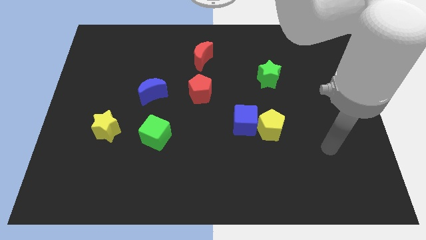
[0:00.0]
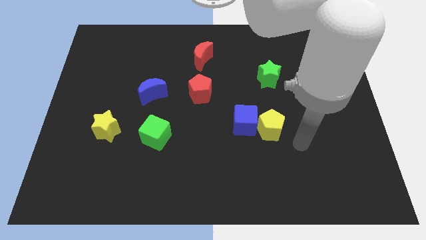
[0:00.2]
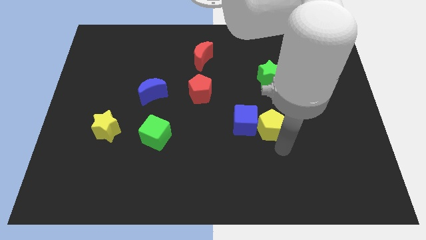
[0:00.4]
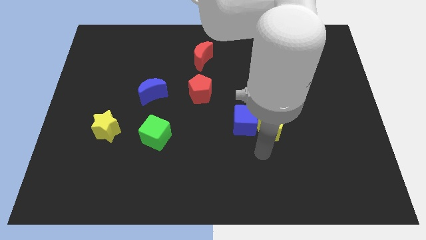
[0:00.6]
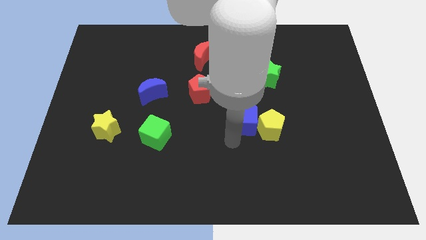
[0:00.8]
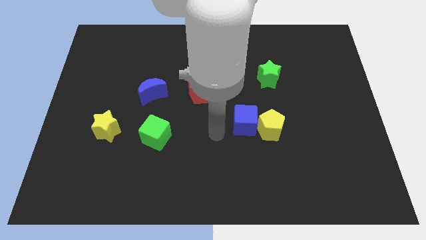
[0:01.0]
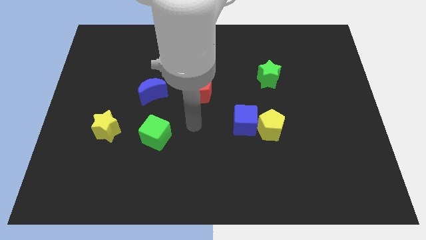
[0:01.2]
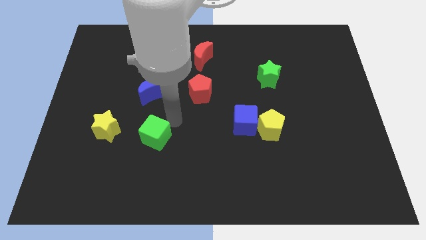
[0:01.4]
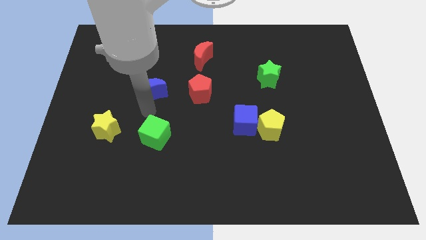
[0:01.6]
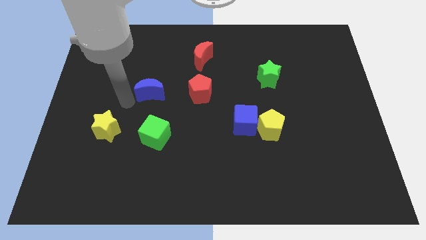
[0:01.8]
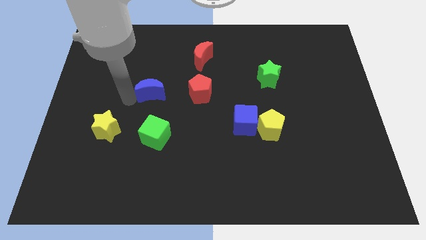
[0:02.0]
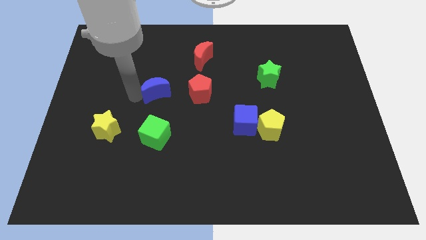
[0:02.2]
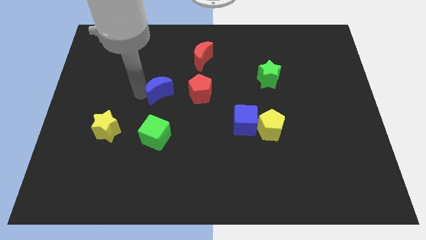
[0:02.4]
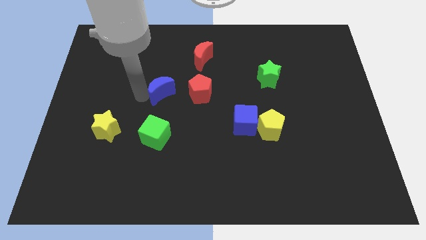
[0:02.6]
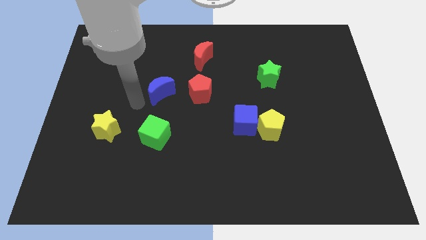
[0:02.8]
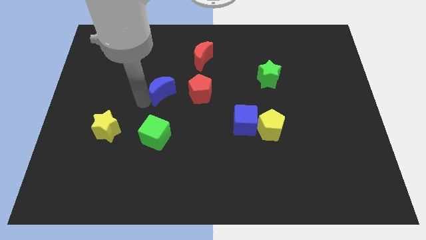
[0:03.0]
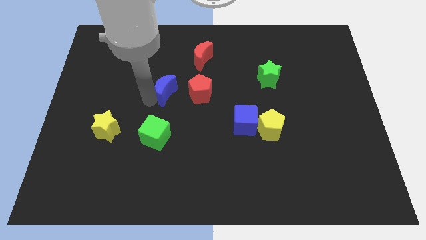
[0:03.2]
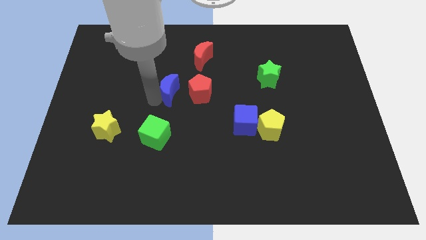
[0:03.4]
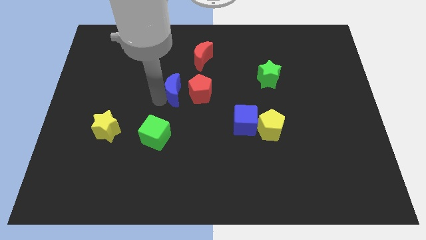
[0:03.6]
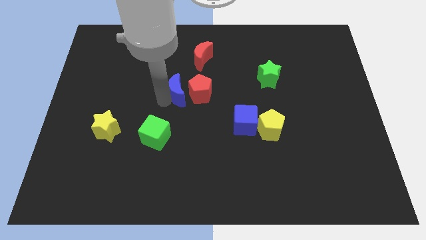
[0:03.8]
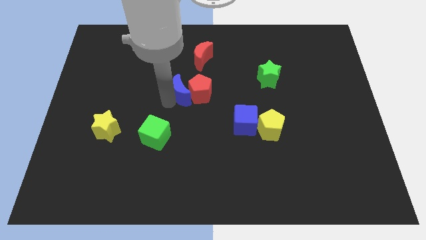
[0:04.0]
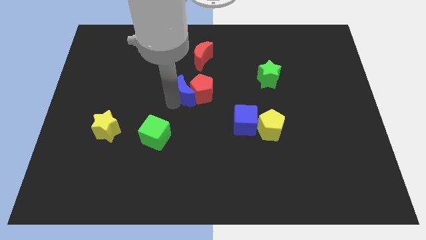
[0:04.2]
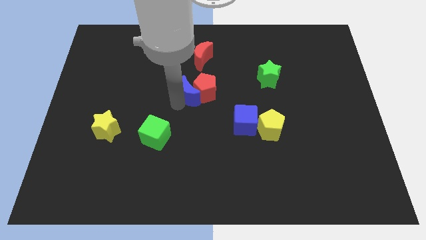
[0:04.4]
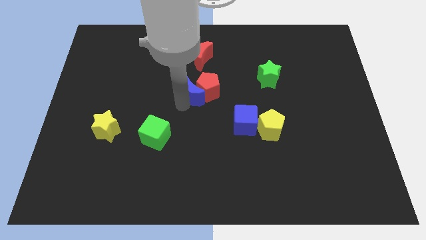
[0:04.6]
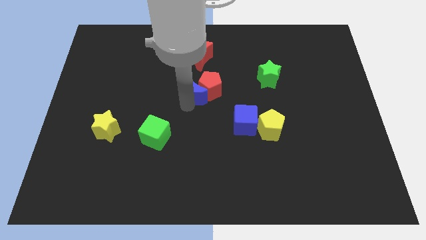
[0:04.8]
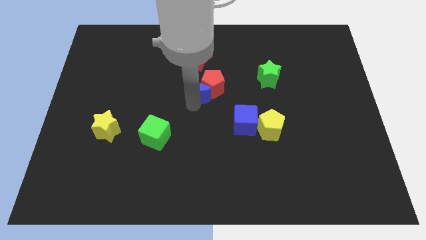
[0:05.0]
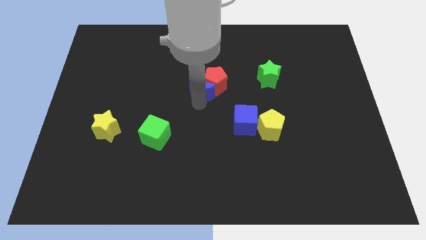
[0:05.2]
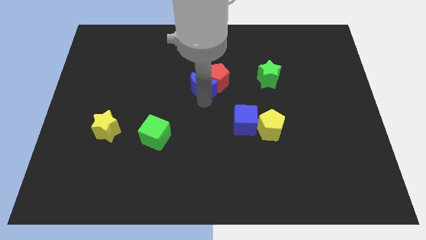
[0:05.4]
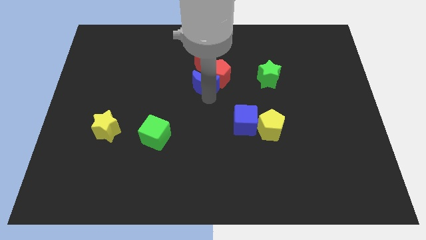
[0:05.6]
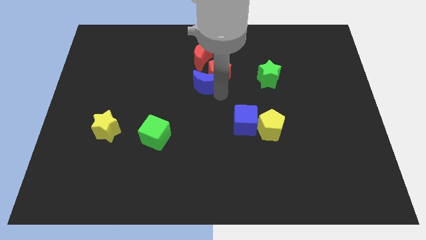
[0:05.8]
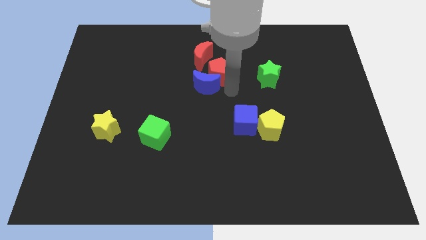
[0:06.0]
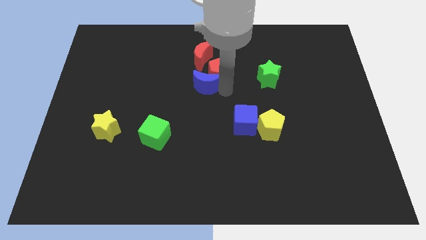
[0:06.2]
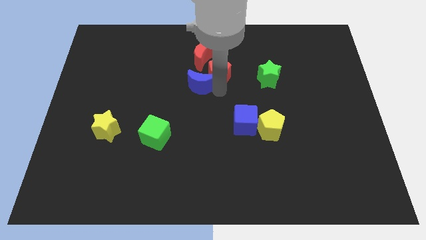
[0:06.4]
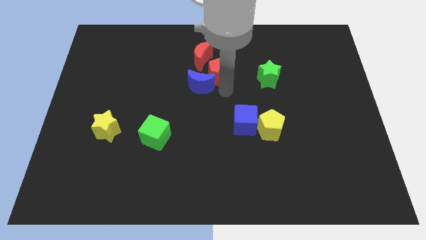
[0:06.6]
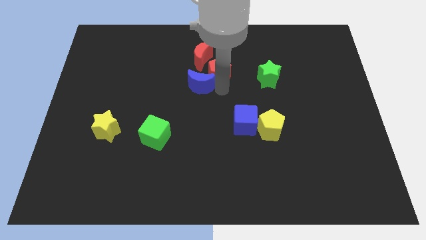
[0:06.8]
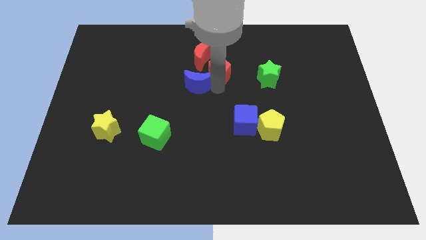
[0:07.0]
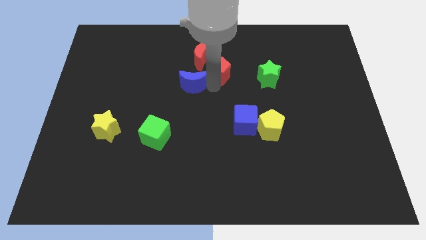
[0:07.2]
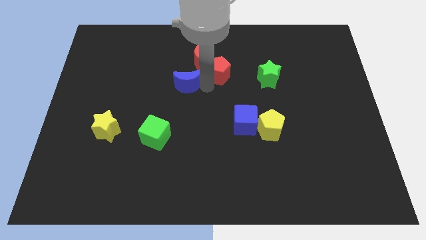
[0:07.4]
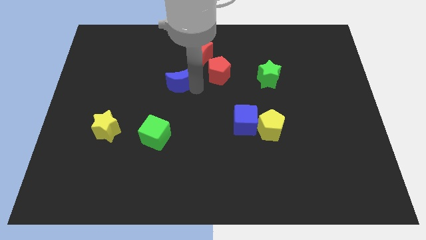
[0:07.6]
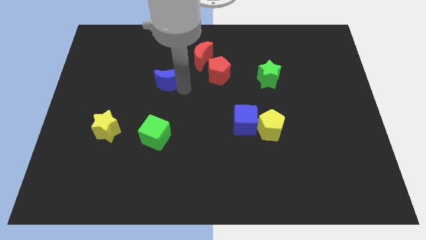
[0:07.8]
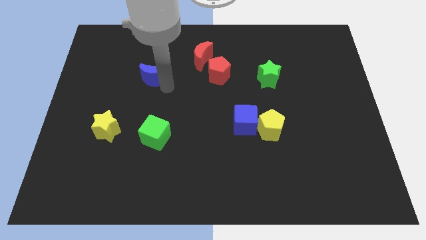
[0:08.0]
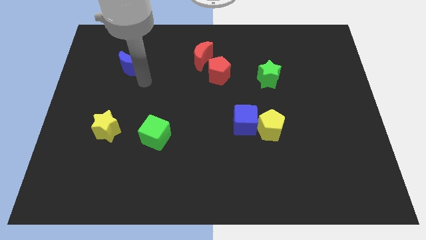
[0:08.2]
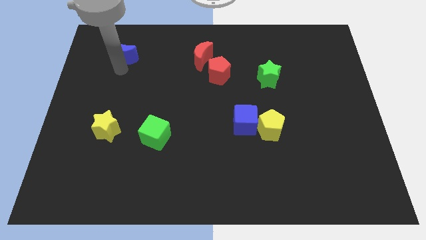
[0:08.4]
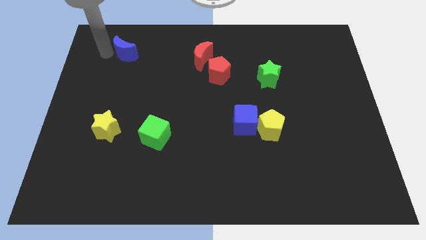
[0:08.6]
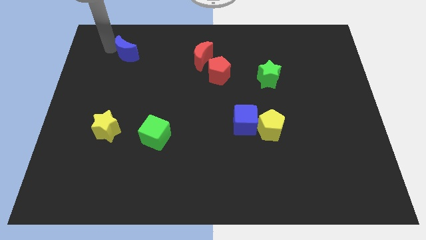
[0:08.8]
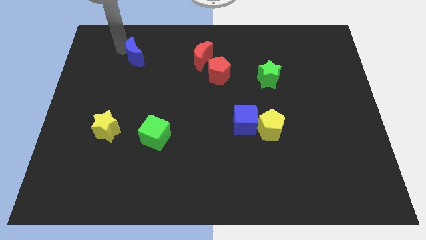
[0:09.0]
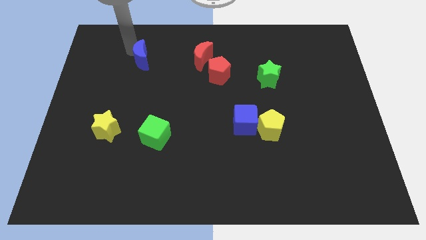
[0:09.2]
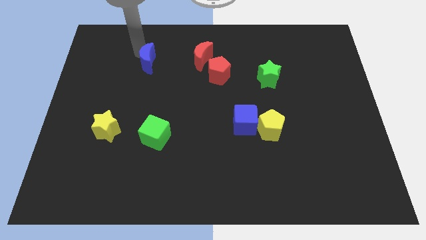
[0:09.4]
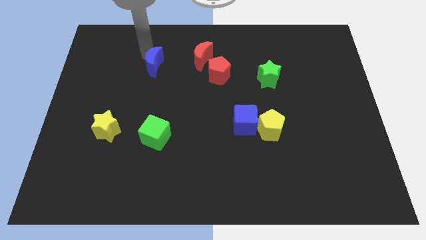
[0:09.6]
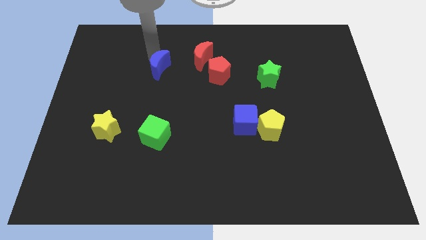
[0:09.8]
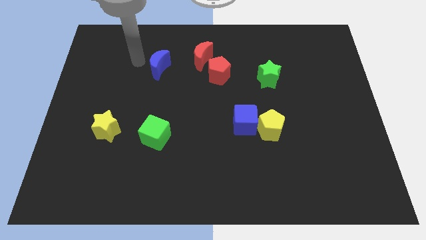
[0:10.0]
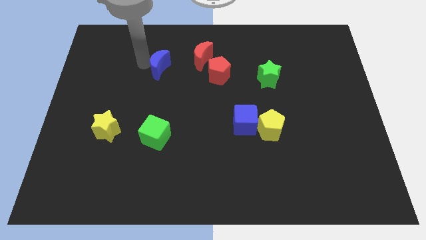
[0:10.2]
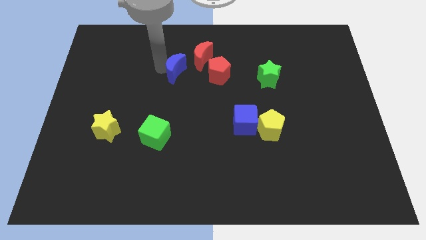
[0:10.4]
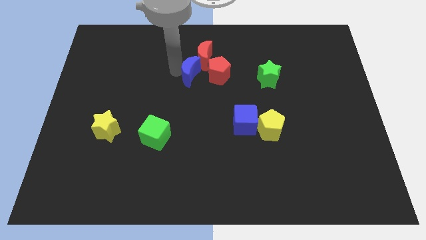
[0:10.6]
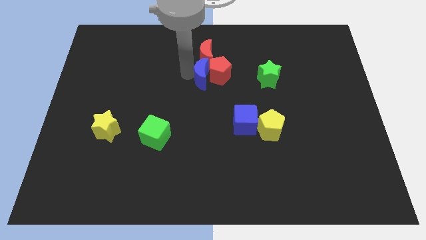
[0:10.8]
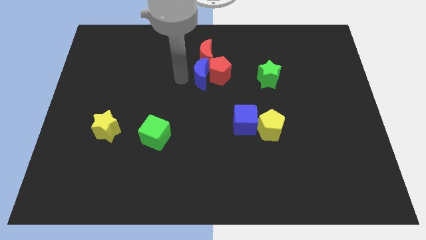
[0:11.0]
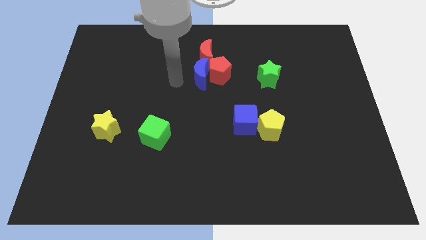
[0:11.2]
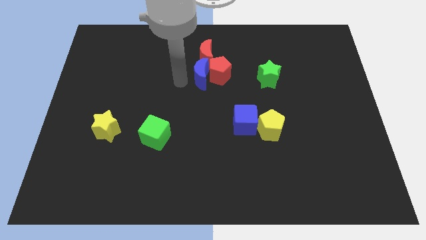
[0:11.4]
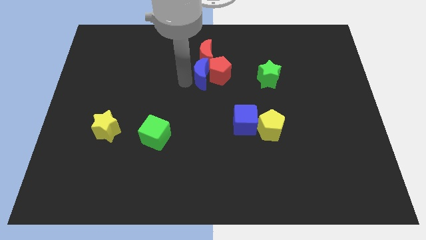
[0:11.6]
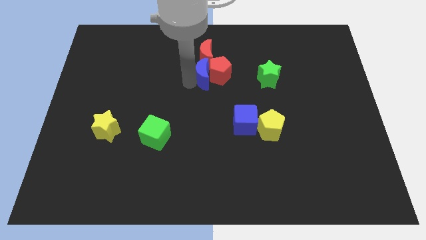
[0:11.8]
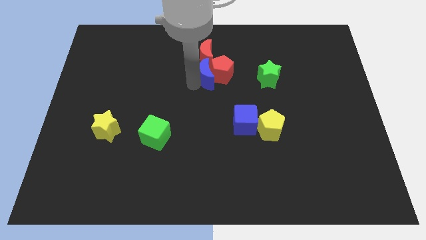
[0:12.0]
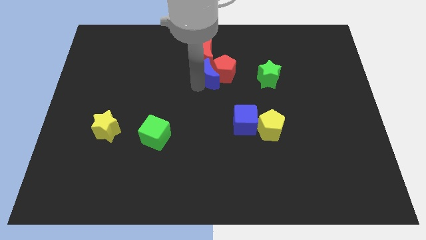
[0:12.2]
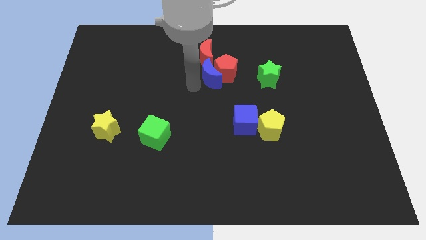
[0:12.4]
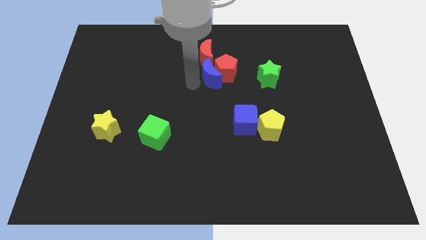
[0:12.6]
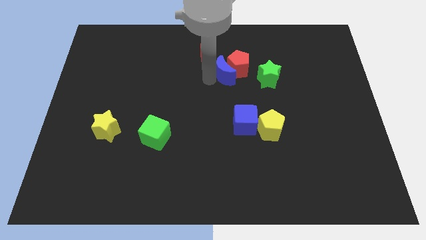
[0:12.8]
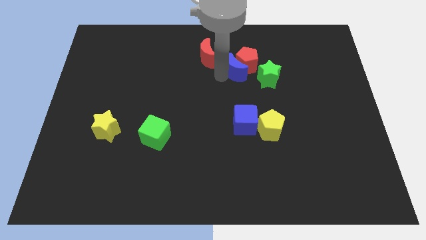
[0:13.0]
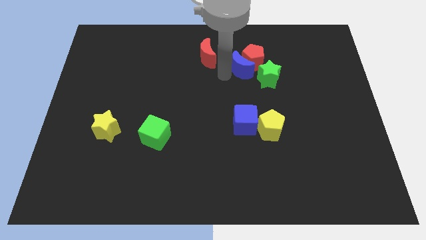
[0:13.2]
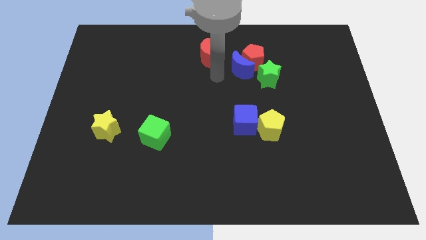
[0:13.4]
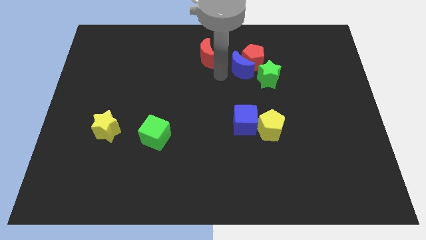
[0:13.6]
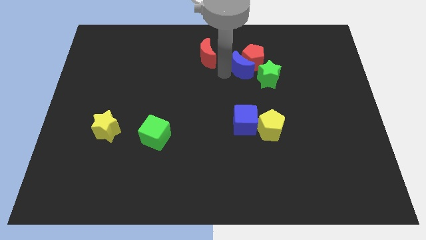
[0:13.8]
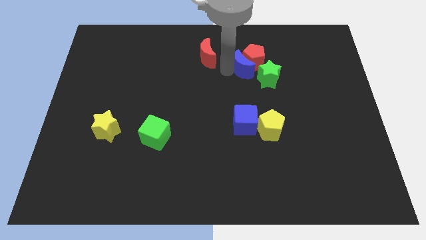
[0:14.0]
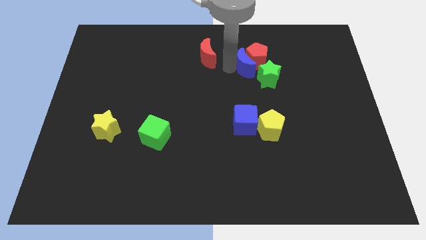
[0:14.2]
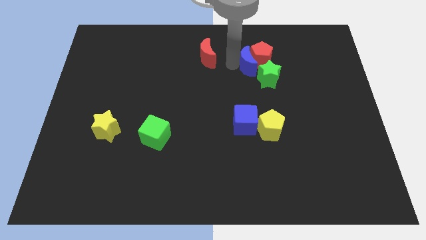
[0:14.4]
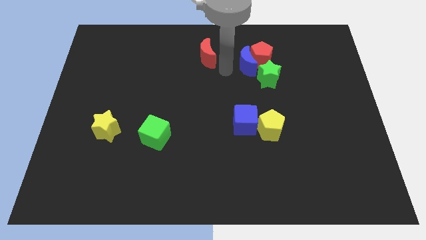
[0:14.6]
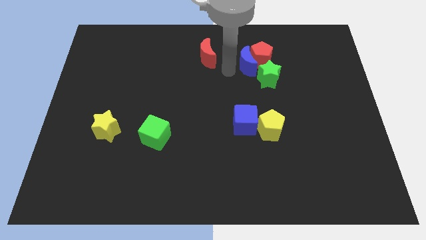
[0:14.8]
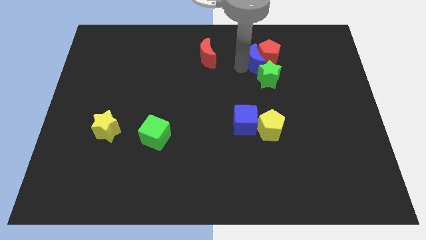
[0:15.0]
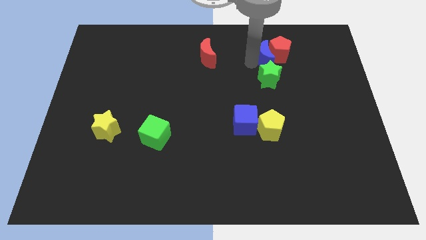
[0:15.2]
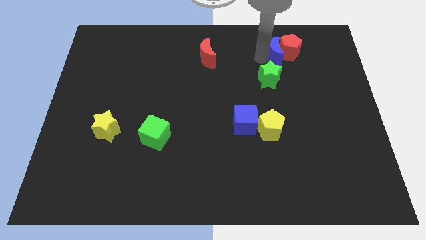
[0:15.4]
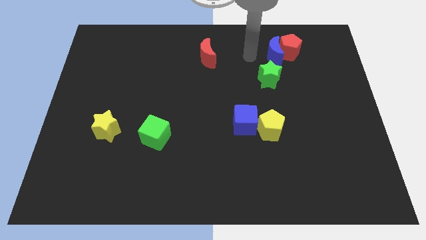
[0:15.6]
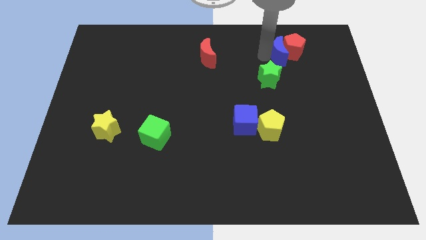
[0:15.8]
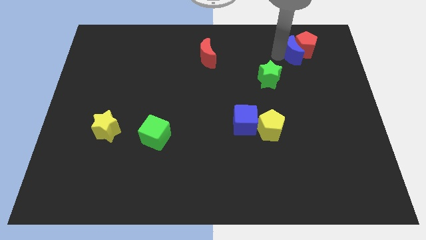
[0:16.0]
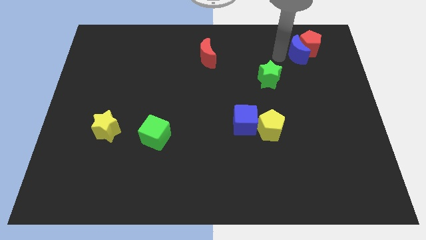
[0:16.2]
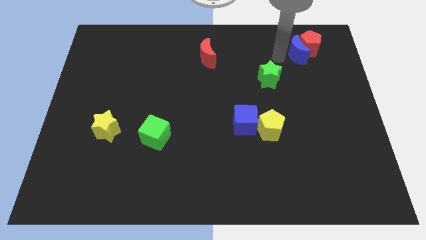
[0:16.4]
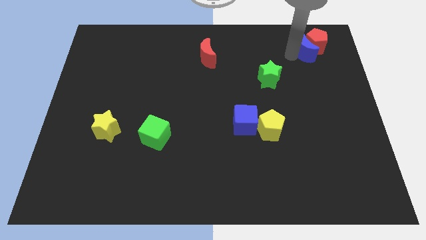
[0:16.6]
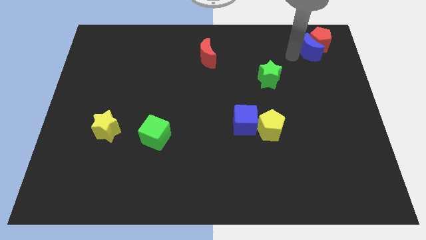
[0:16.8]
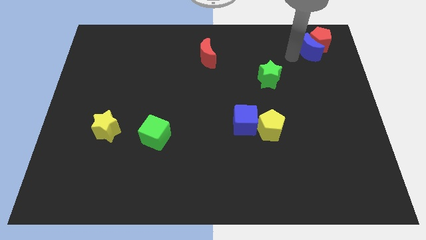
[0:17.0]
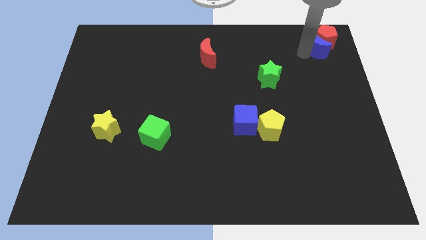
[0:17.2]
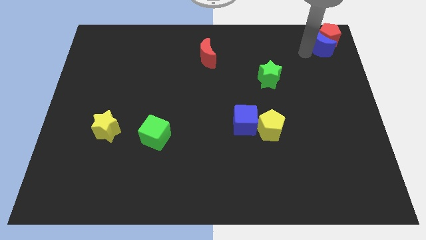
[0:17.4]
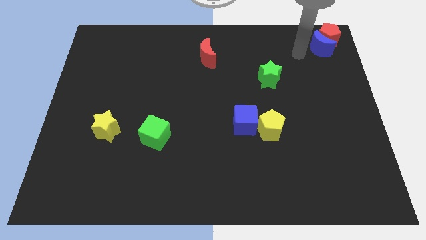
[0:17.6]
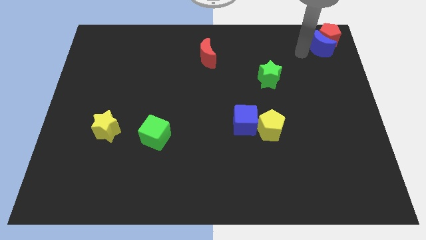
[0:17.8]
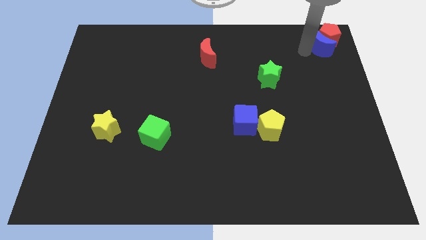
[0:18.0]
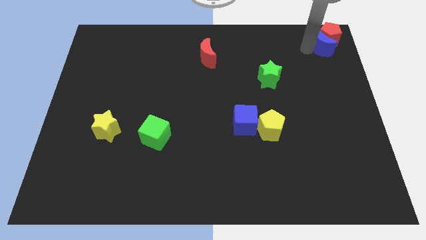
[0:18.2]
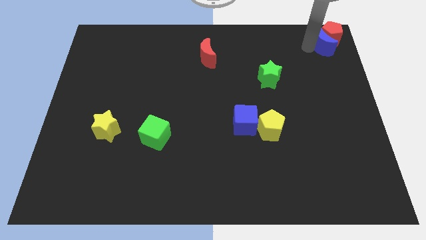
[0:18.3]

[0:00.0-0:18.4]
put the blue moon to the top right of the board
